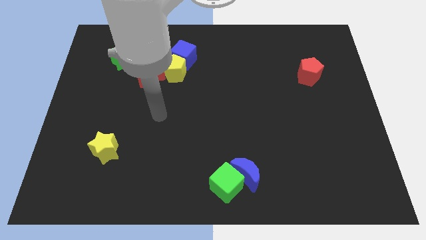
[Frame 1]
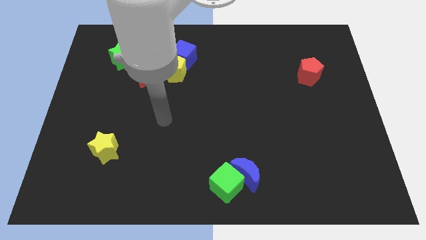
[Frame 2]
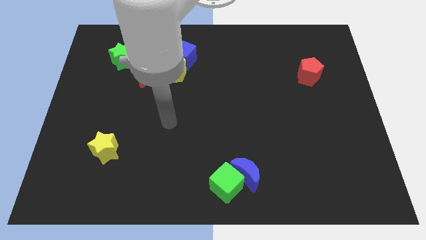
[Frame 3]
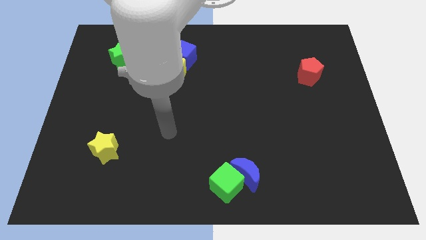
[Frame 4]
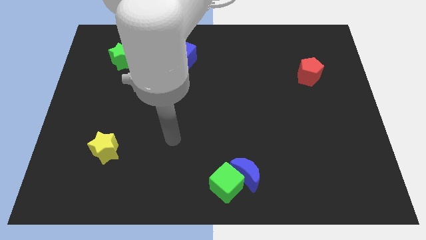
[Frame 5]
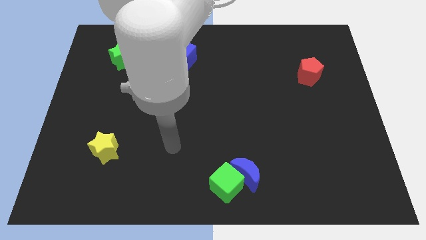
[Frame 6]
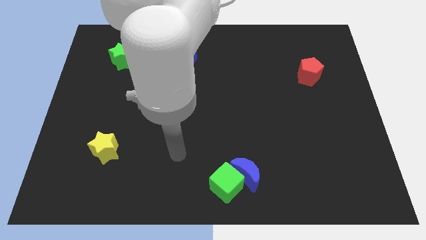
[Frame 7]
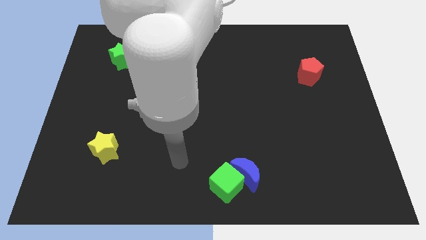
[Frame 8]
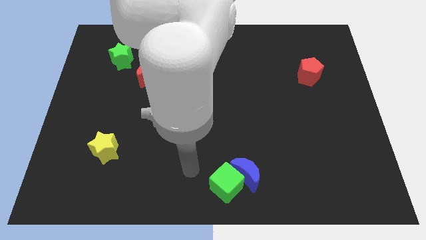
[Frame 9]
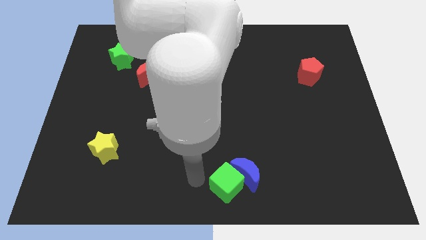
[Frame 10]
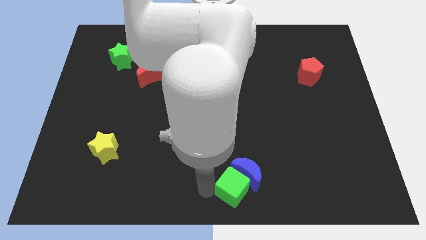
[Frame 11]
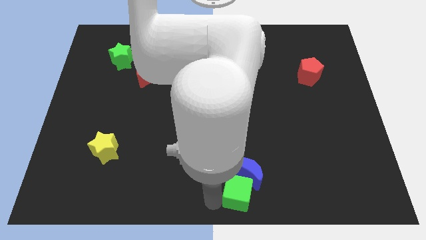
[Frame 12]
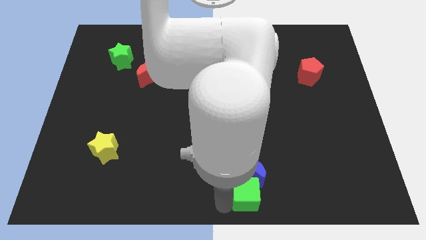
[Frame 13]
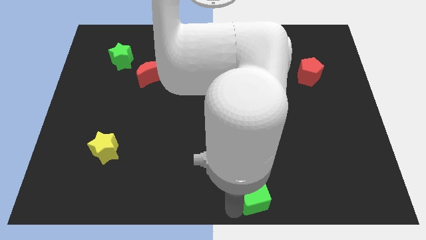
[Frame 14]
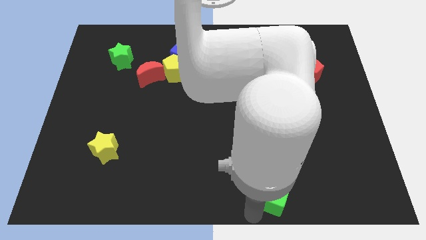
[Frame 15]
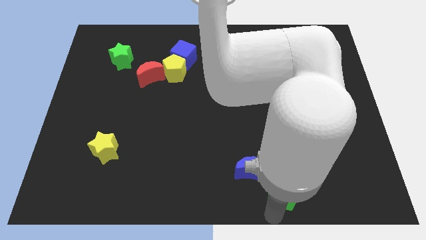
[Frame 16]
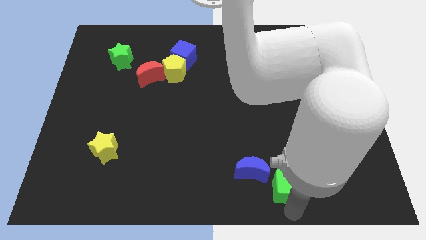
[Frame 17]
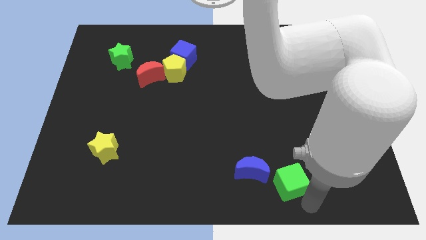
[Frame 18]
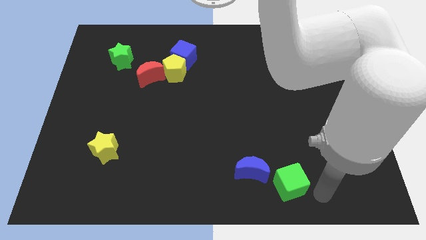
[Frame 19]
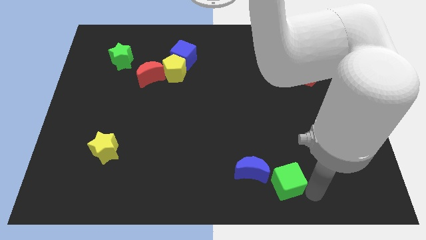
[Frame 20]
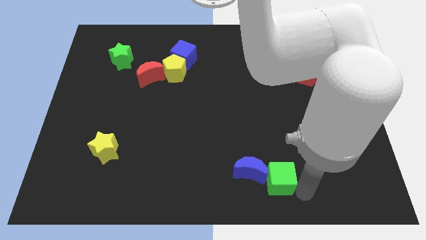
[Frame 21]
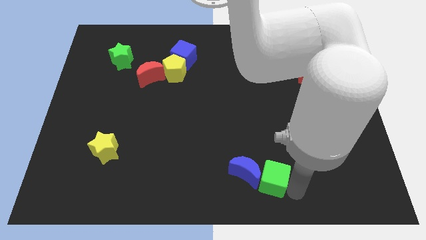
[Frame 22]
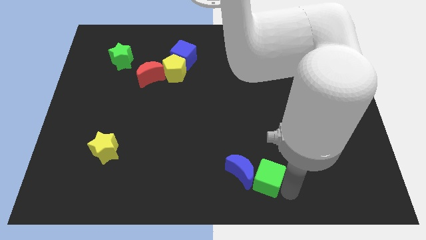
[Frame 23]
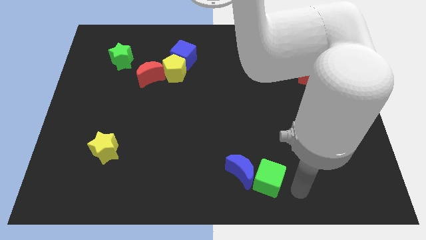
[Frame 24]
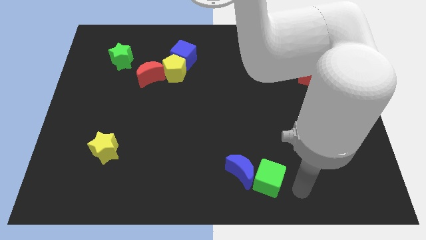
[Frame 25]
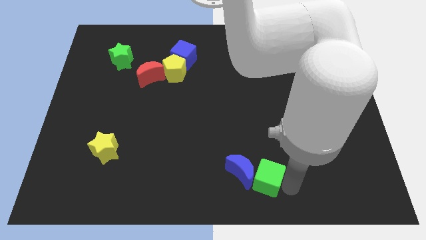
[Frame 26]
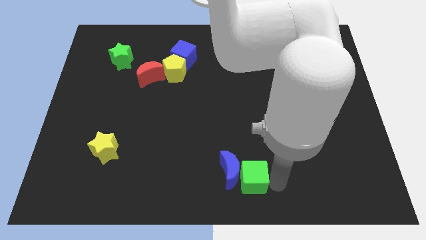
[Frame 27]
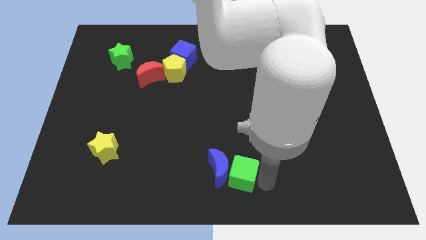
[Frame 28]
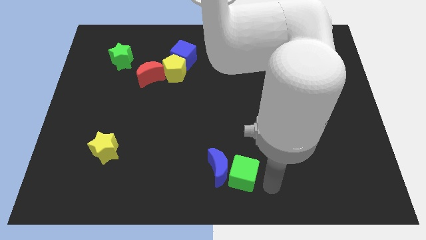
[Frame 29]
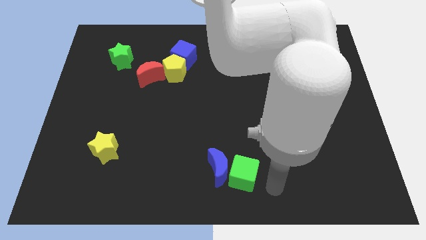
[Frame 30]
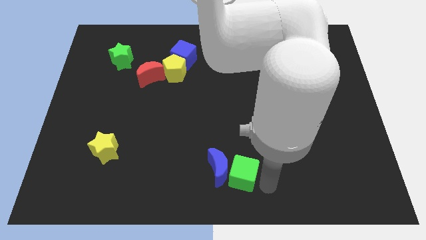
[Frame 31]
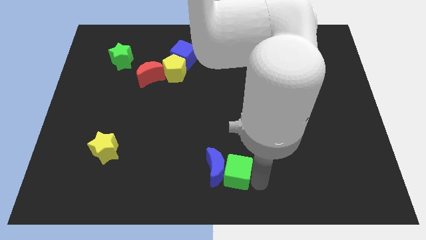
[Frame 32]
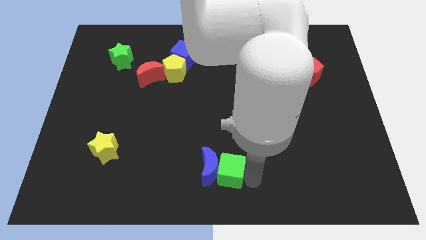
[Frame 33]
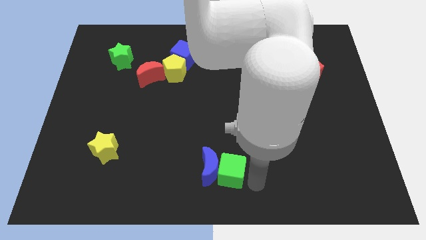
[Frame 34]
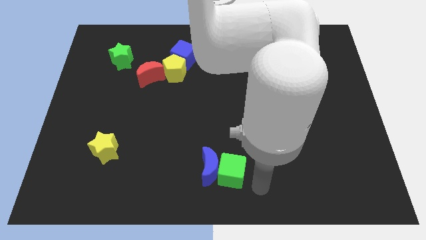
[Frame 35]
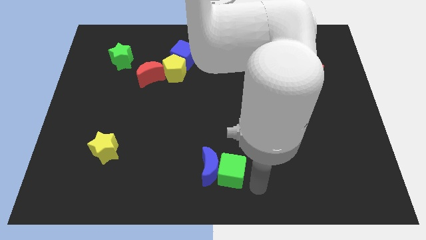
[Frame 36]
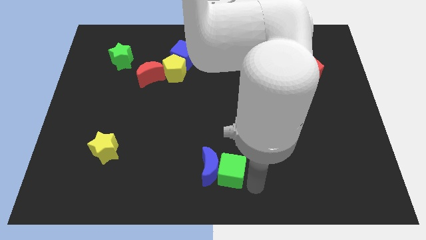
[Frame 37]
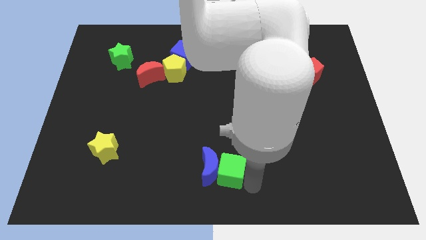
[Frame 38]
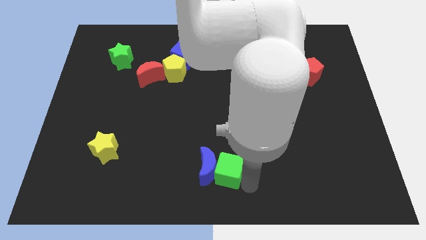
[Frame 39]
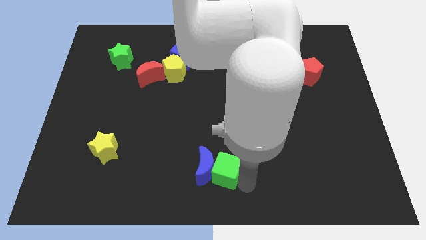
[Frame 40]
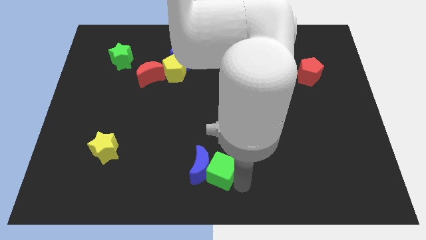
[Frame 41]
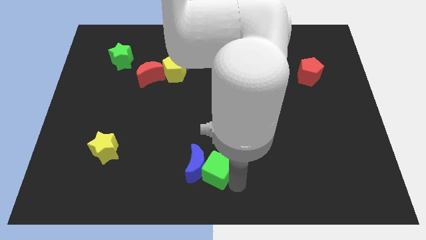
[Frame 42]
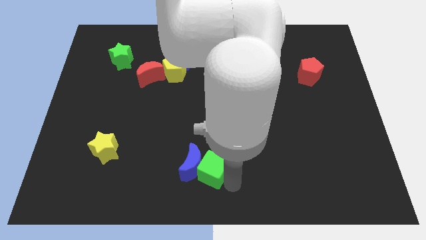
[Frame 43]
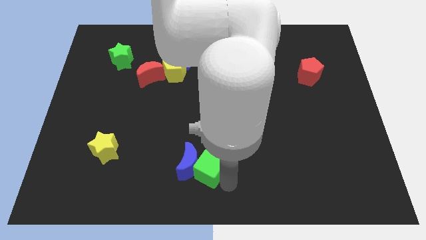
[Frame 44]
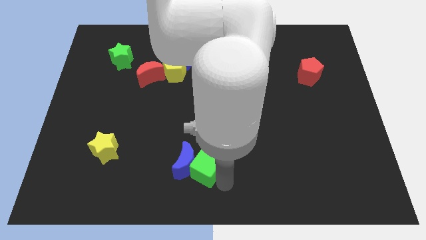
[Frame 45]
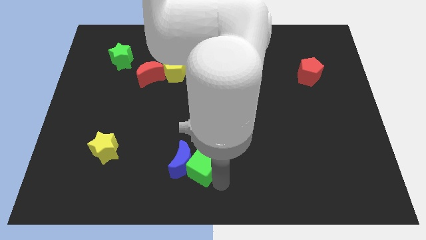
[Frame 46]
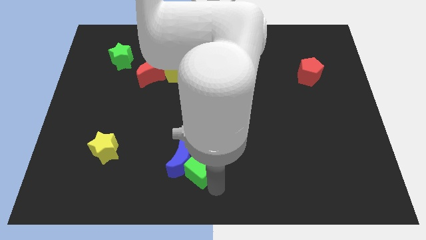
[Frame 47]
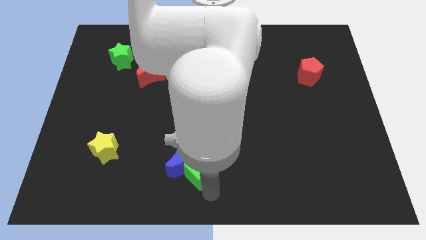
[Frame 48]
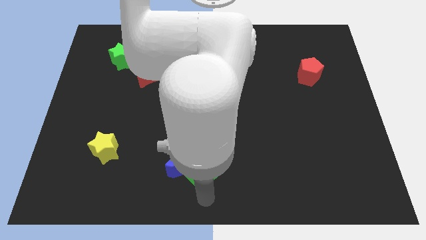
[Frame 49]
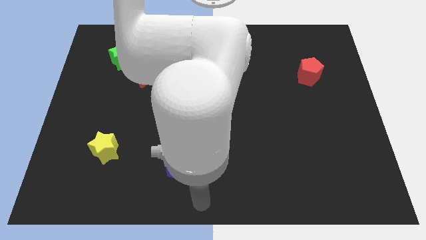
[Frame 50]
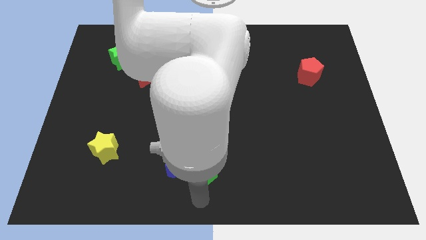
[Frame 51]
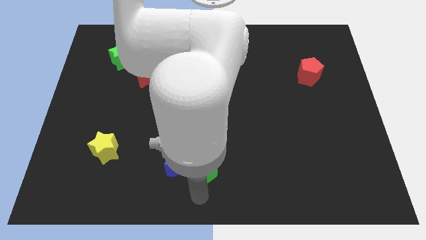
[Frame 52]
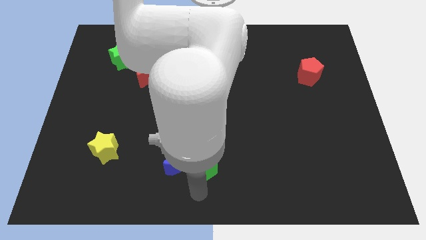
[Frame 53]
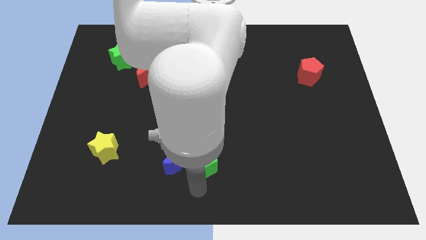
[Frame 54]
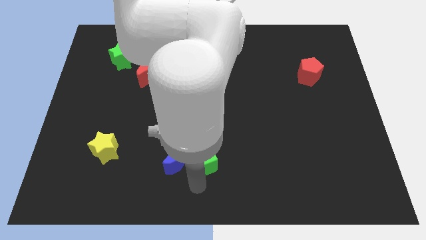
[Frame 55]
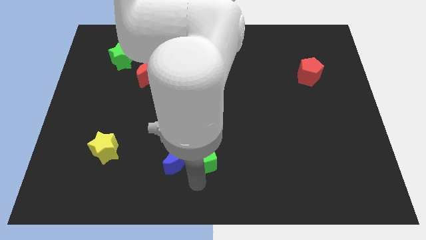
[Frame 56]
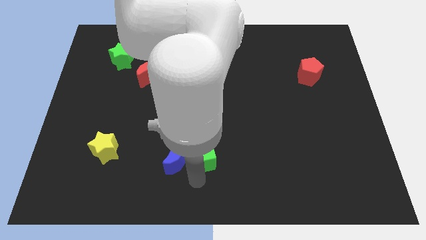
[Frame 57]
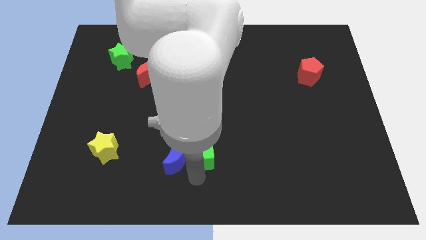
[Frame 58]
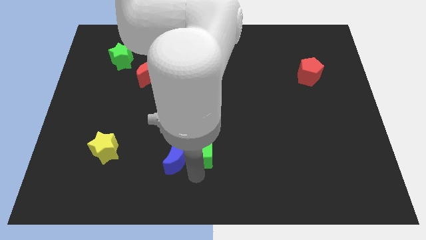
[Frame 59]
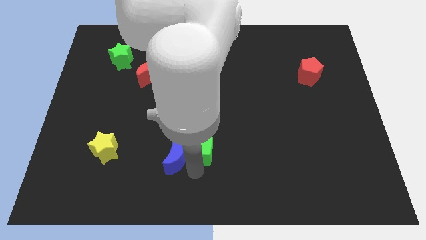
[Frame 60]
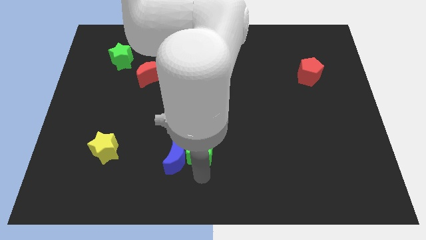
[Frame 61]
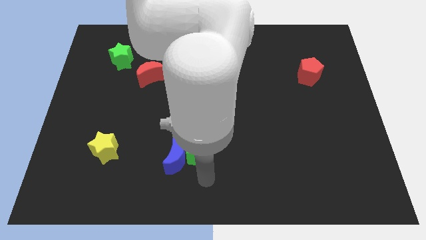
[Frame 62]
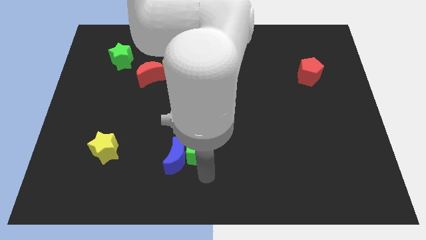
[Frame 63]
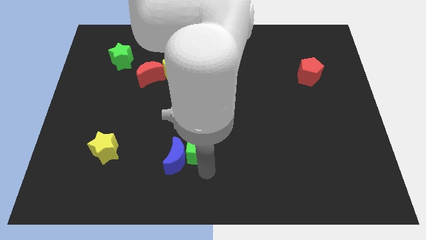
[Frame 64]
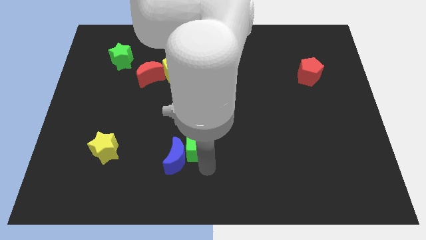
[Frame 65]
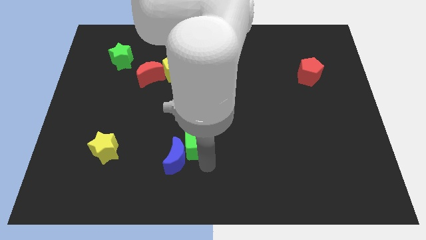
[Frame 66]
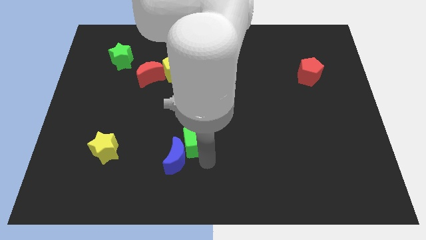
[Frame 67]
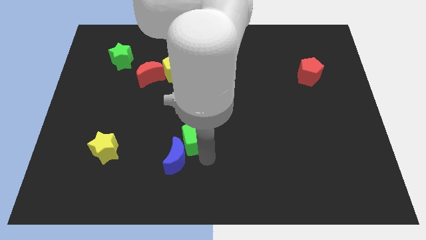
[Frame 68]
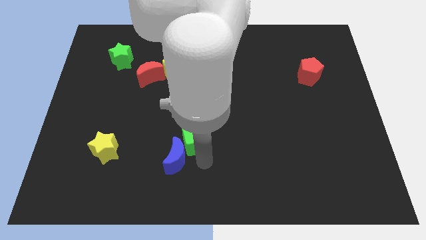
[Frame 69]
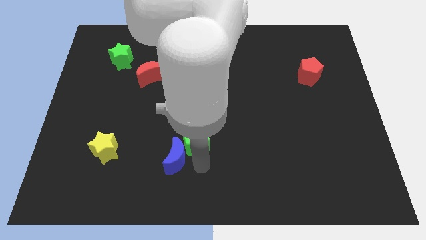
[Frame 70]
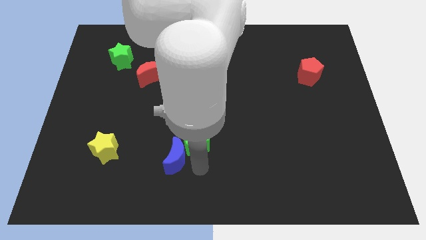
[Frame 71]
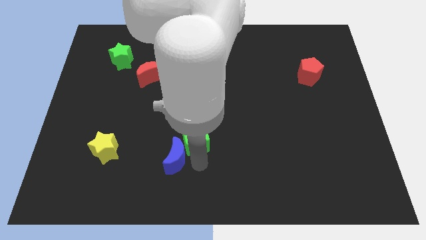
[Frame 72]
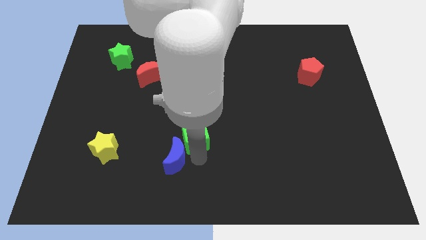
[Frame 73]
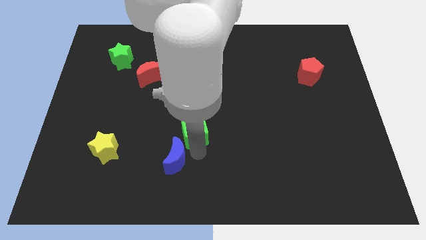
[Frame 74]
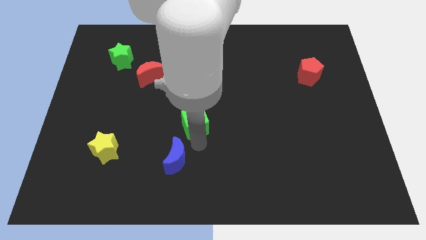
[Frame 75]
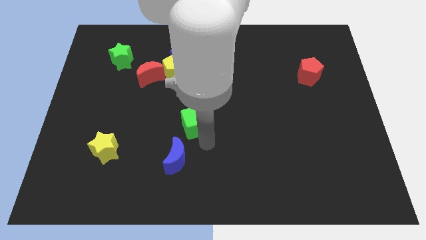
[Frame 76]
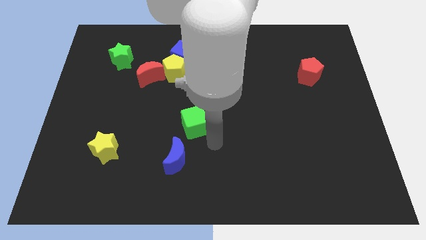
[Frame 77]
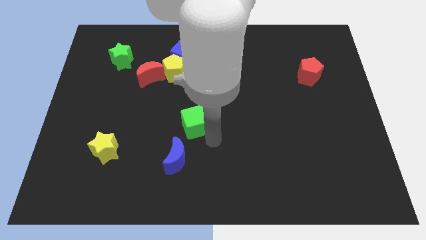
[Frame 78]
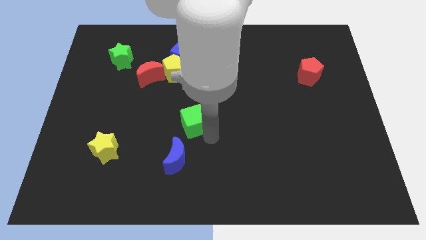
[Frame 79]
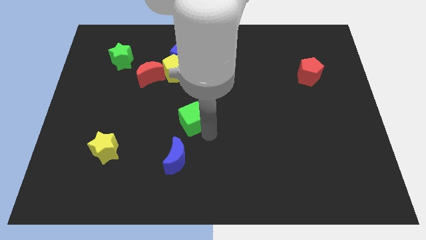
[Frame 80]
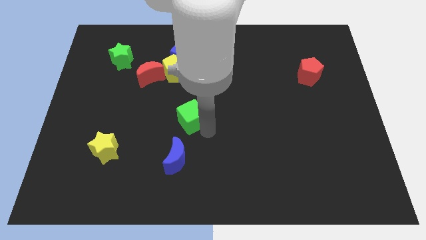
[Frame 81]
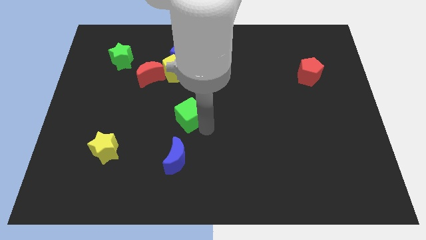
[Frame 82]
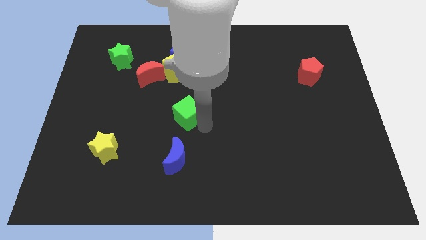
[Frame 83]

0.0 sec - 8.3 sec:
put the green cube below the yellow pentagon
